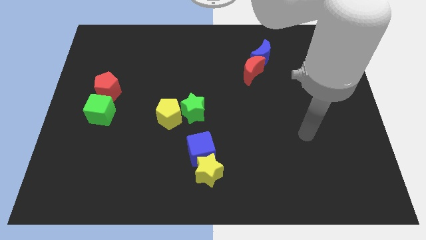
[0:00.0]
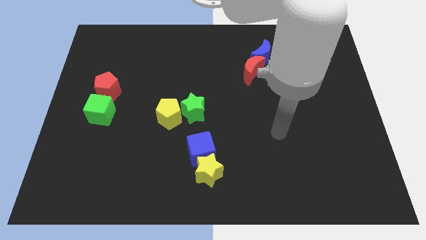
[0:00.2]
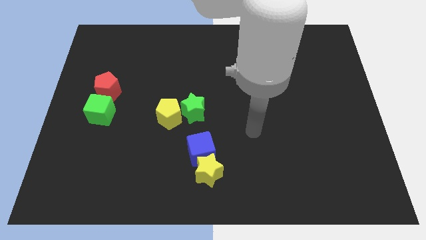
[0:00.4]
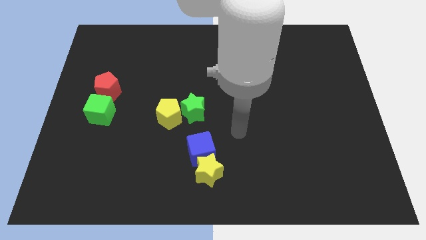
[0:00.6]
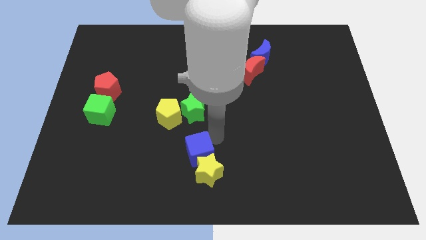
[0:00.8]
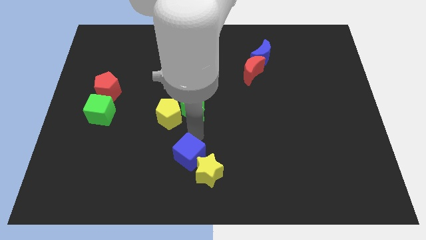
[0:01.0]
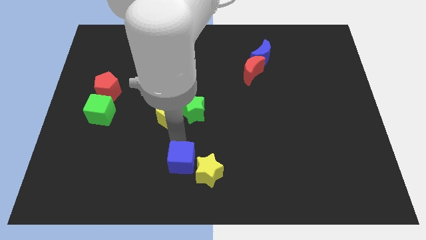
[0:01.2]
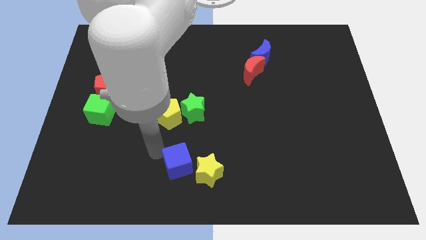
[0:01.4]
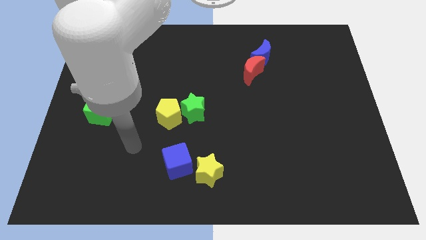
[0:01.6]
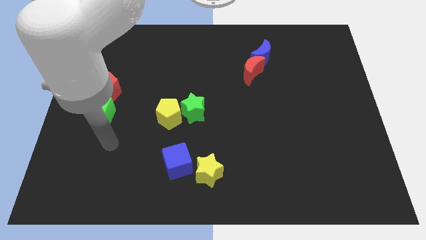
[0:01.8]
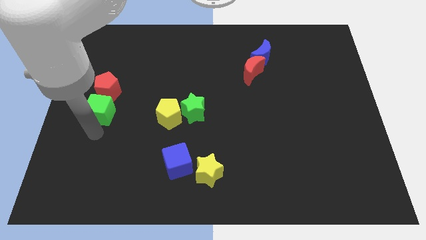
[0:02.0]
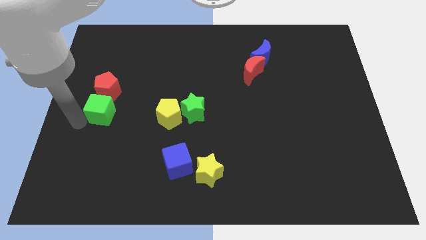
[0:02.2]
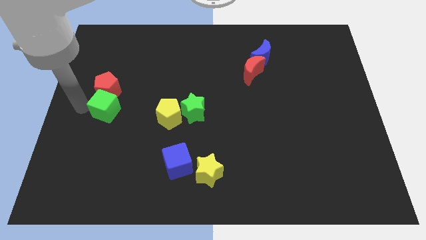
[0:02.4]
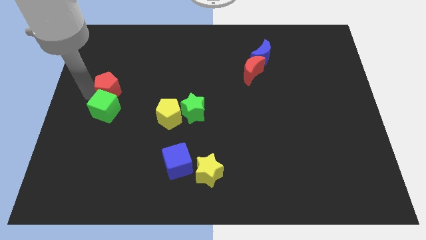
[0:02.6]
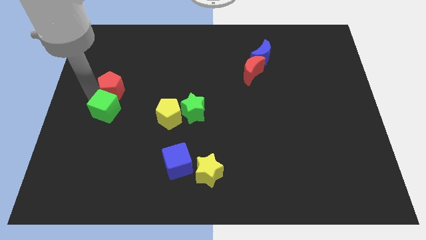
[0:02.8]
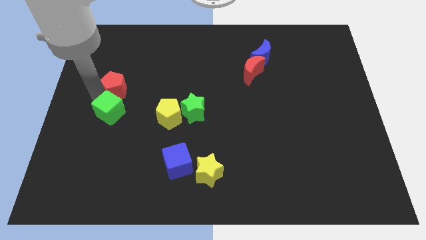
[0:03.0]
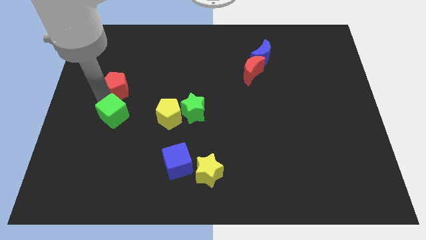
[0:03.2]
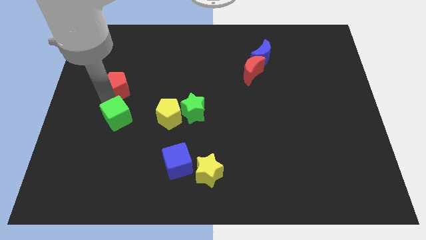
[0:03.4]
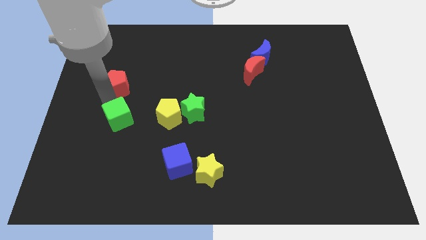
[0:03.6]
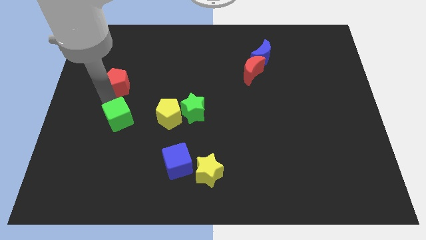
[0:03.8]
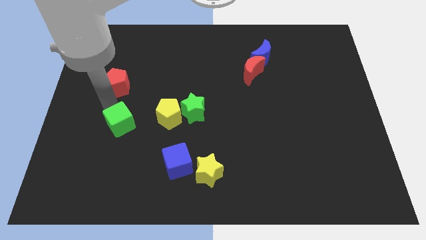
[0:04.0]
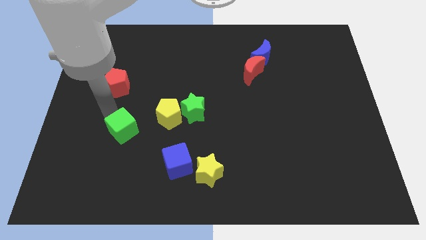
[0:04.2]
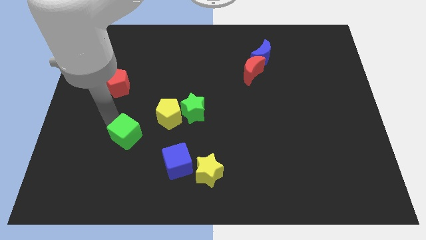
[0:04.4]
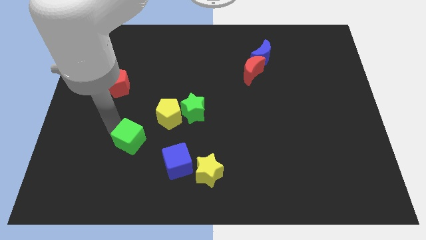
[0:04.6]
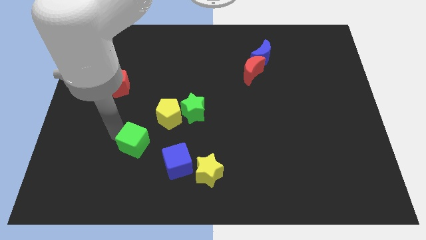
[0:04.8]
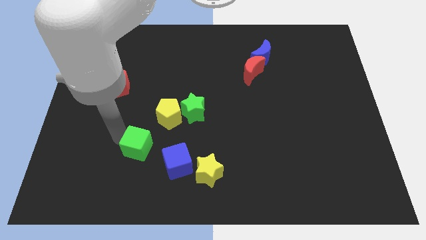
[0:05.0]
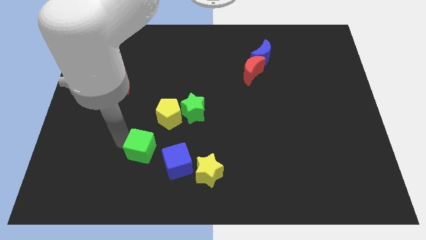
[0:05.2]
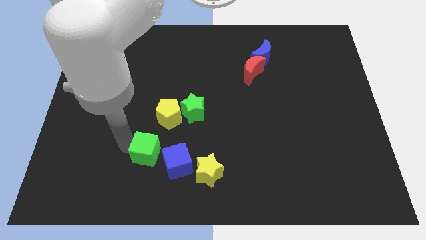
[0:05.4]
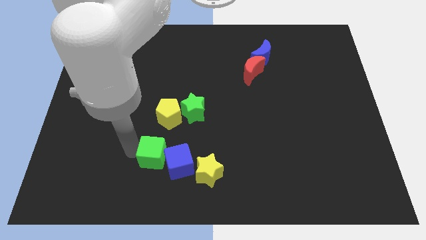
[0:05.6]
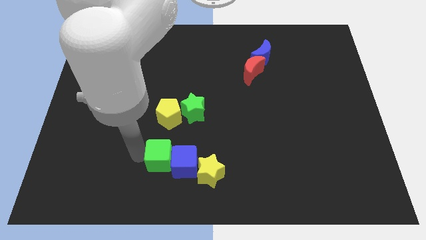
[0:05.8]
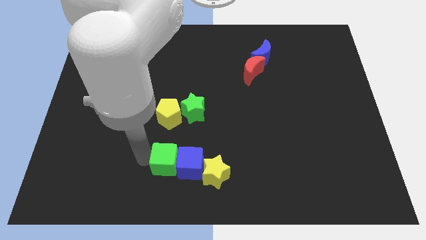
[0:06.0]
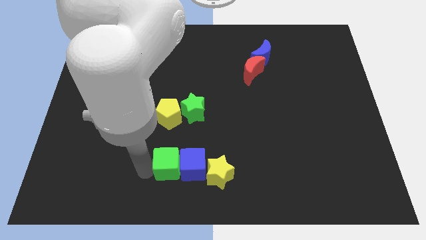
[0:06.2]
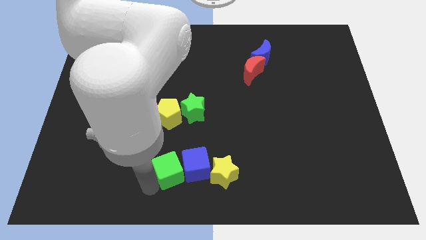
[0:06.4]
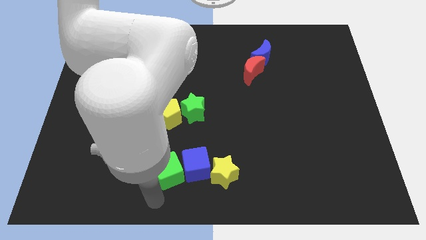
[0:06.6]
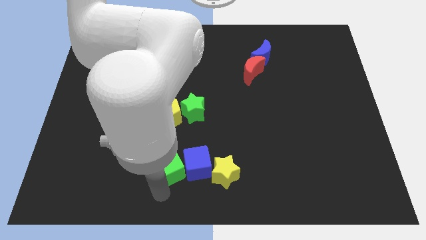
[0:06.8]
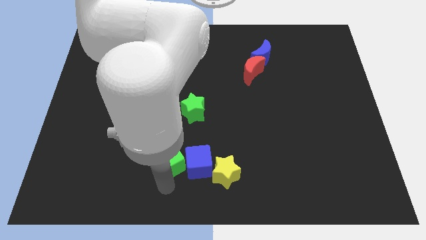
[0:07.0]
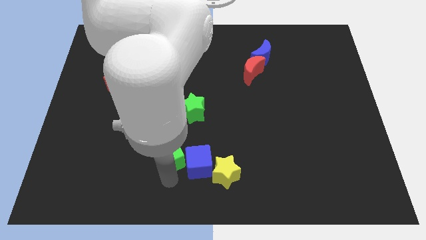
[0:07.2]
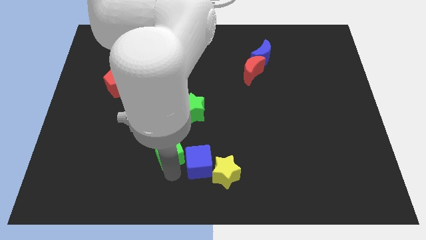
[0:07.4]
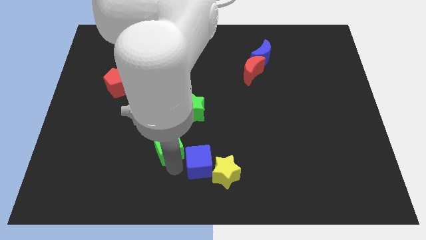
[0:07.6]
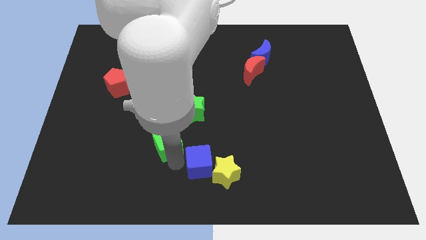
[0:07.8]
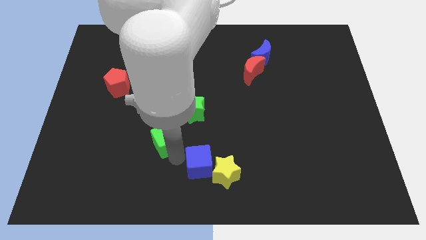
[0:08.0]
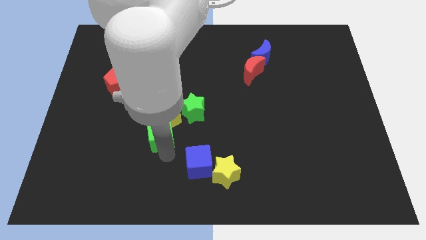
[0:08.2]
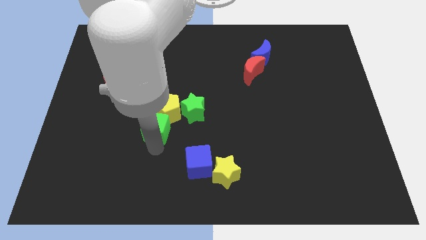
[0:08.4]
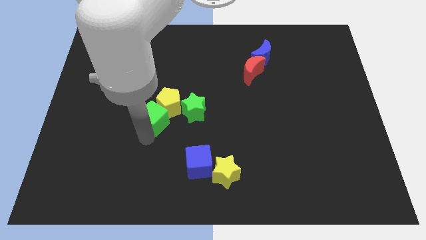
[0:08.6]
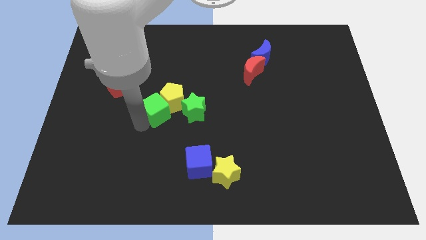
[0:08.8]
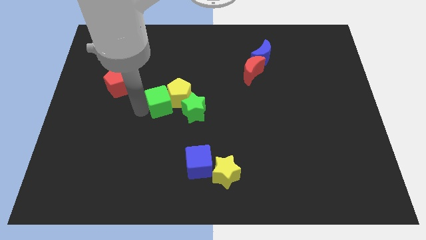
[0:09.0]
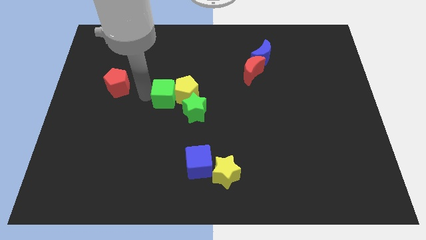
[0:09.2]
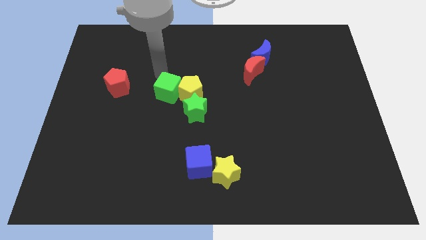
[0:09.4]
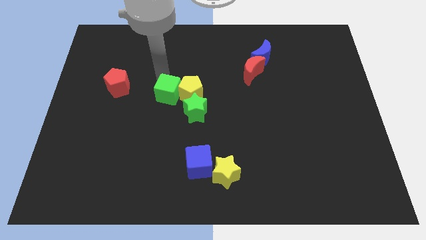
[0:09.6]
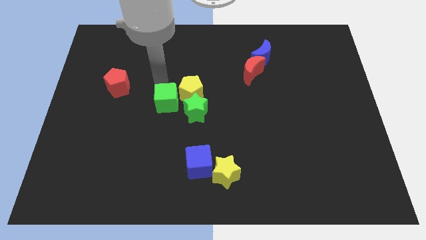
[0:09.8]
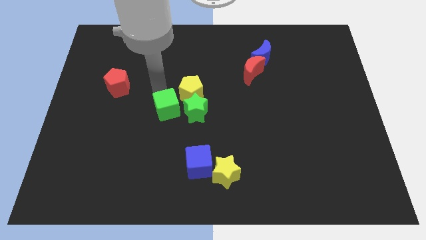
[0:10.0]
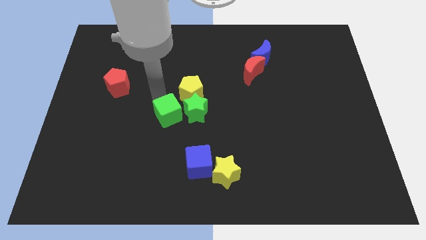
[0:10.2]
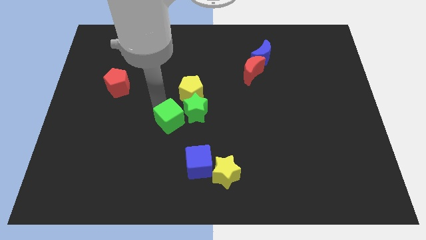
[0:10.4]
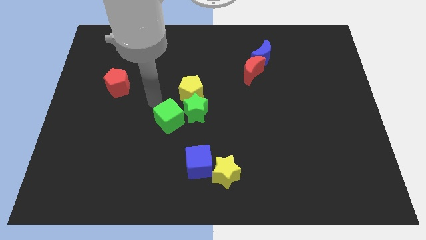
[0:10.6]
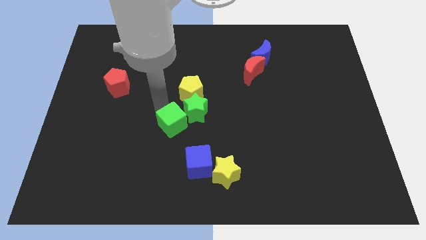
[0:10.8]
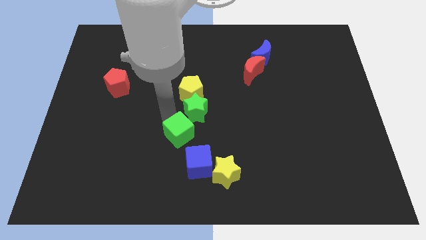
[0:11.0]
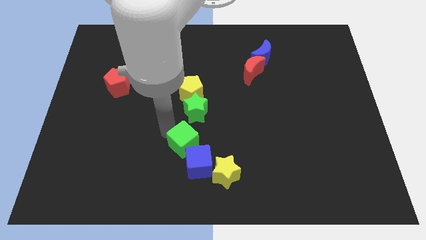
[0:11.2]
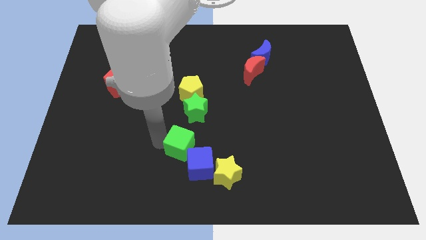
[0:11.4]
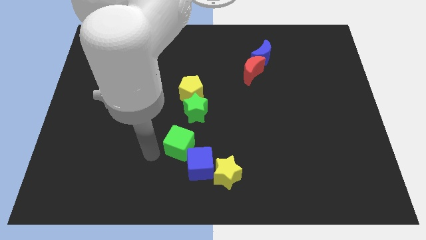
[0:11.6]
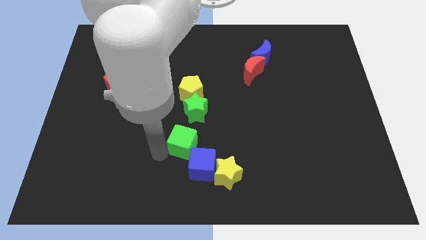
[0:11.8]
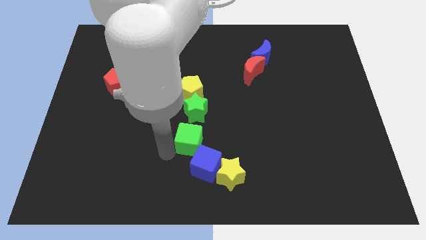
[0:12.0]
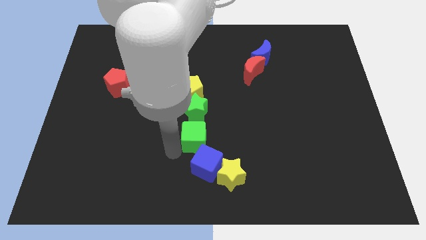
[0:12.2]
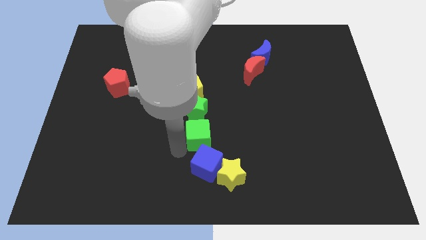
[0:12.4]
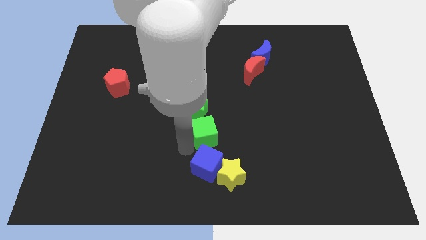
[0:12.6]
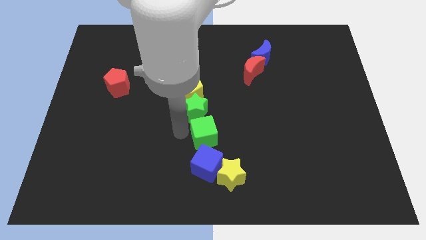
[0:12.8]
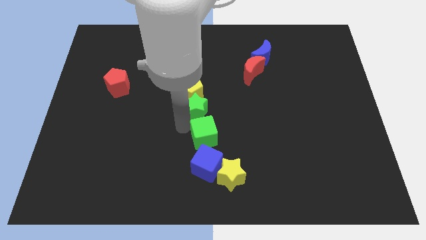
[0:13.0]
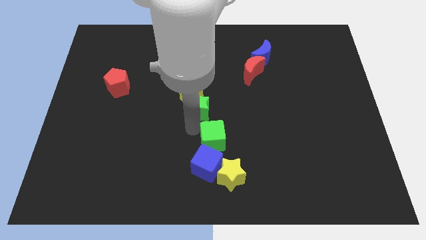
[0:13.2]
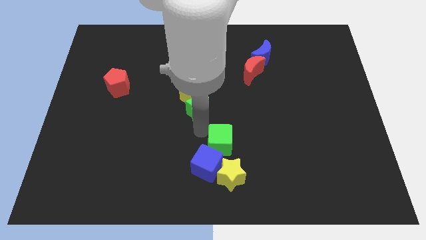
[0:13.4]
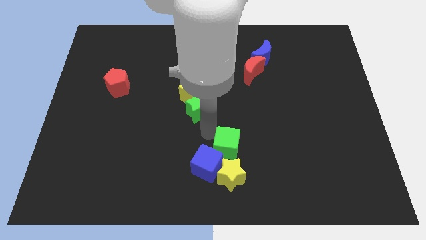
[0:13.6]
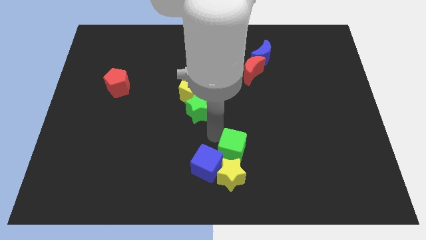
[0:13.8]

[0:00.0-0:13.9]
move the green cube to the top right of the yellow star

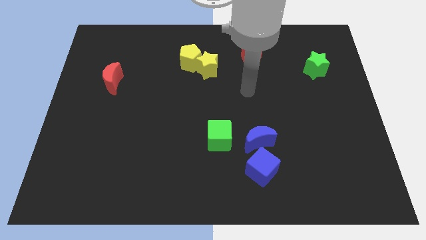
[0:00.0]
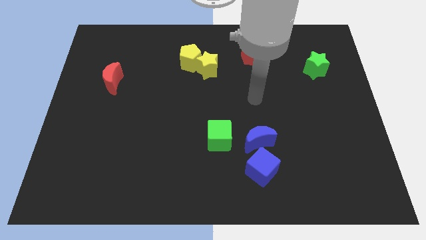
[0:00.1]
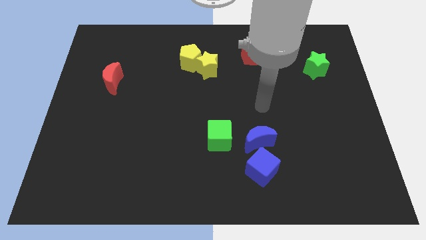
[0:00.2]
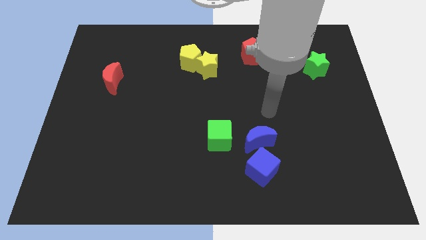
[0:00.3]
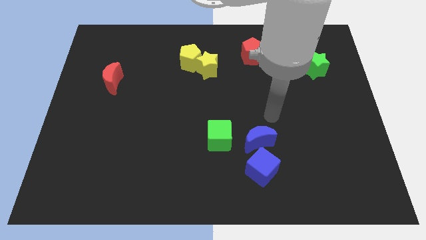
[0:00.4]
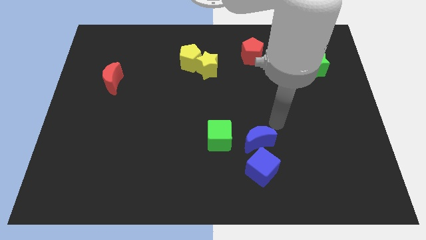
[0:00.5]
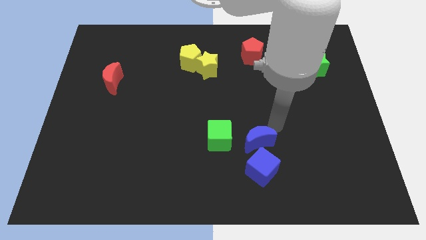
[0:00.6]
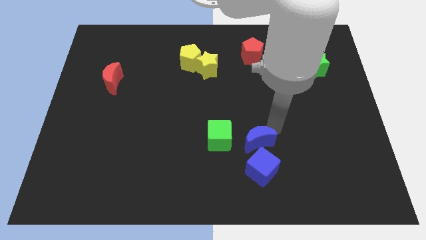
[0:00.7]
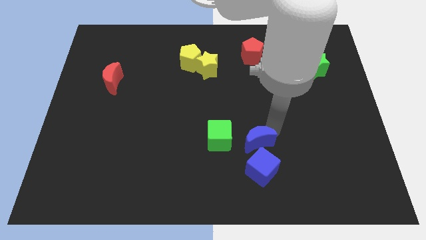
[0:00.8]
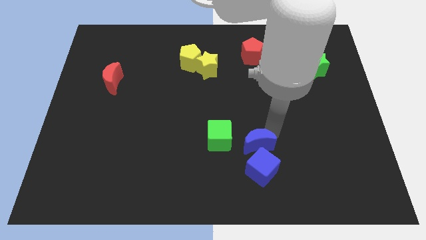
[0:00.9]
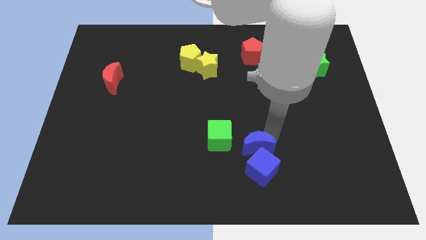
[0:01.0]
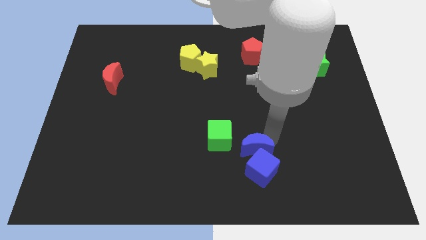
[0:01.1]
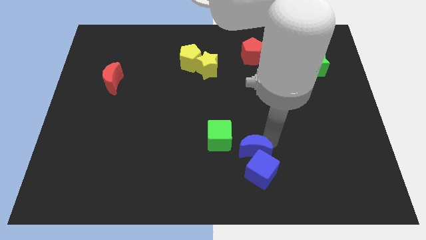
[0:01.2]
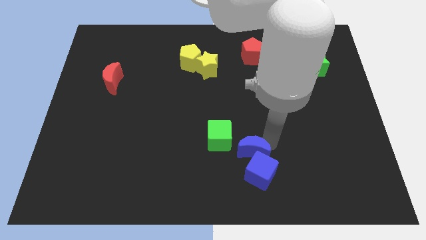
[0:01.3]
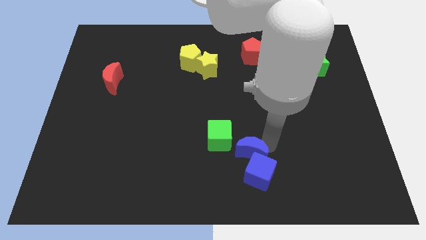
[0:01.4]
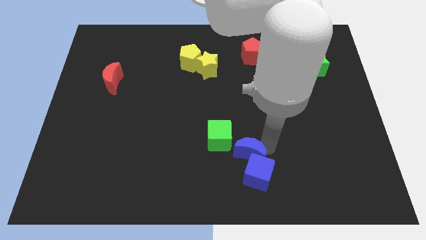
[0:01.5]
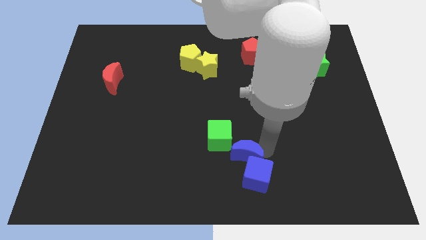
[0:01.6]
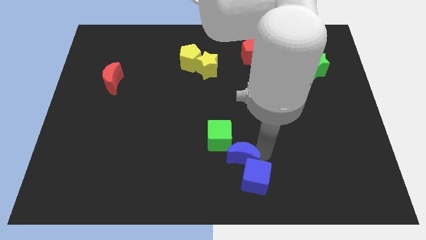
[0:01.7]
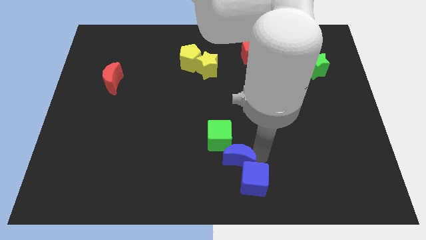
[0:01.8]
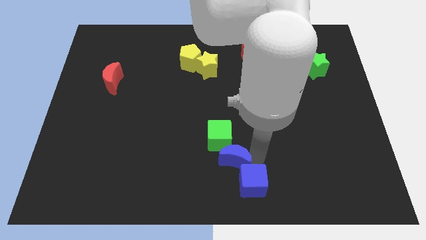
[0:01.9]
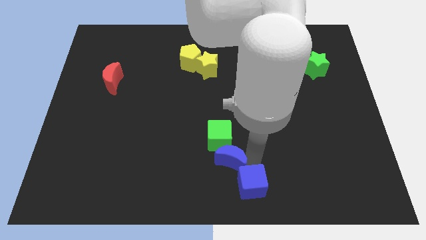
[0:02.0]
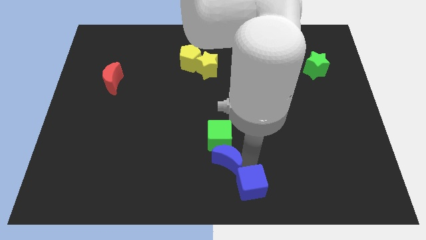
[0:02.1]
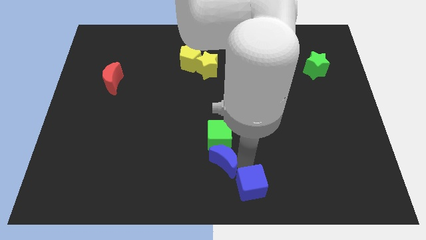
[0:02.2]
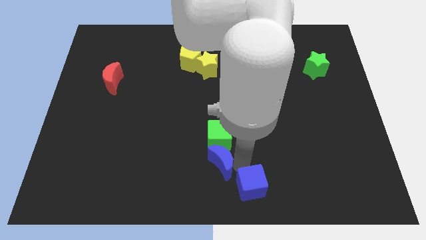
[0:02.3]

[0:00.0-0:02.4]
slide the blue moon to the left of the blue cube
